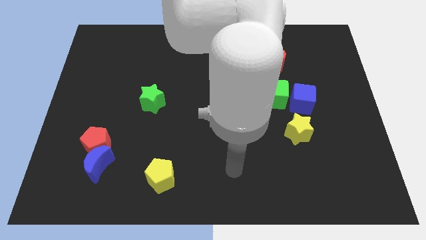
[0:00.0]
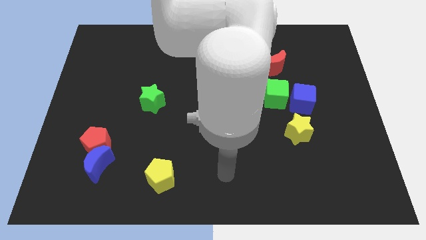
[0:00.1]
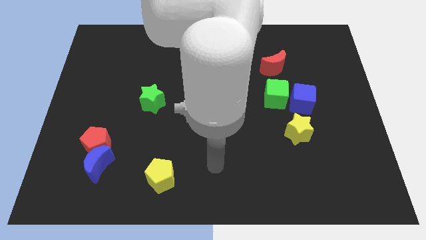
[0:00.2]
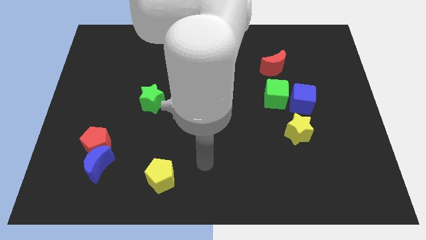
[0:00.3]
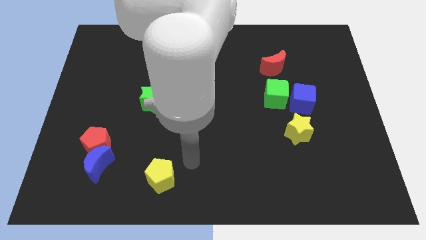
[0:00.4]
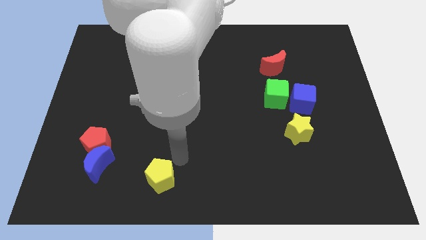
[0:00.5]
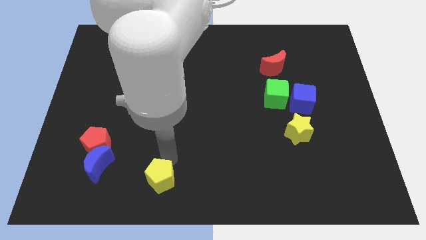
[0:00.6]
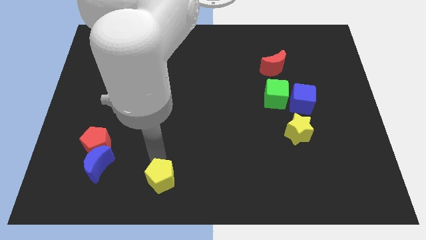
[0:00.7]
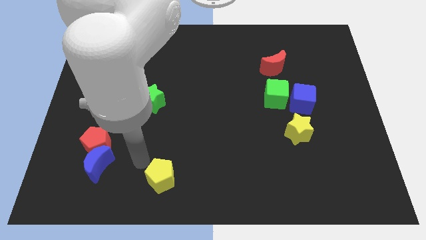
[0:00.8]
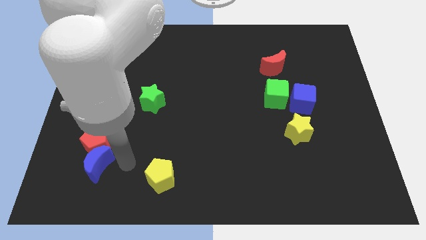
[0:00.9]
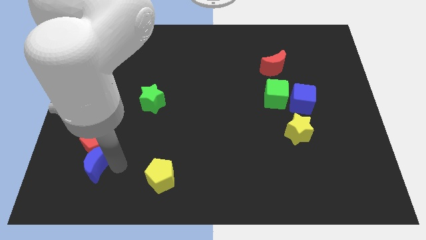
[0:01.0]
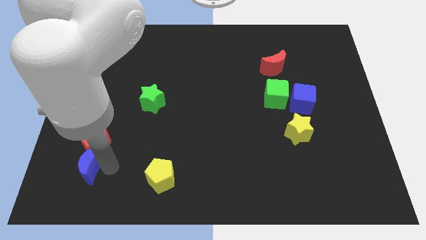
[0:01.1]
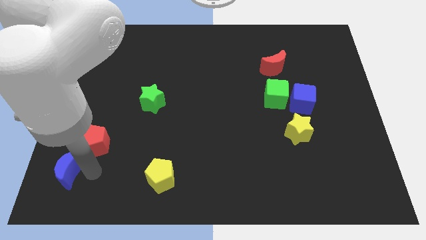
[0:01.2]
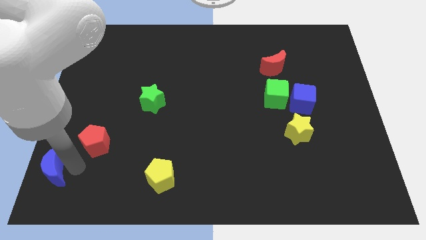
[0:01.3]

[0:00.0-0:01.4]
separate the red pentagon from the blue moon

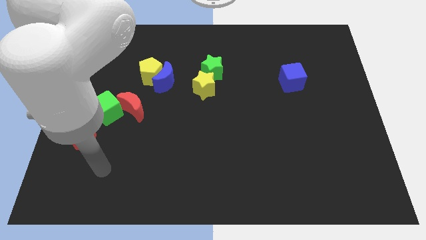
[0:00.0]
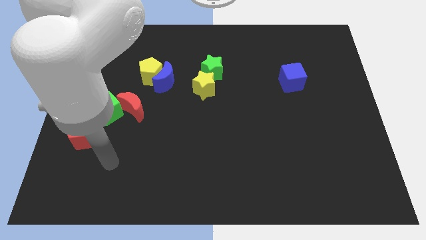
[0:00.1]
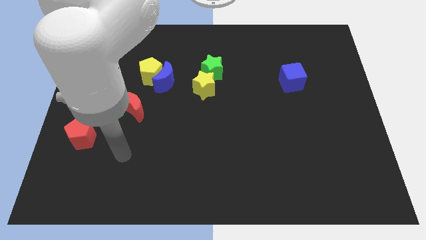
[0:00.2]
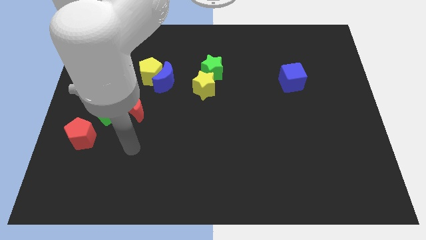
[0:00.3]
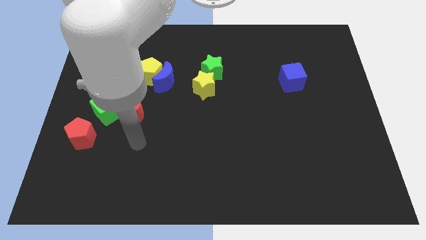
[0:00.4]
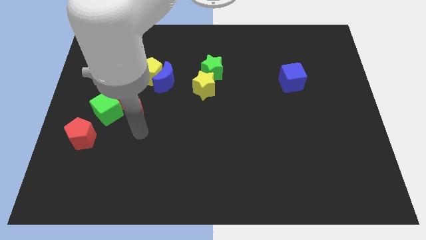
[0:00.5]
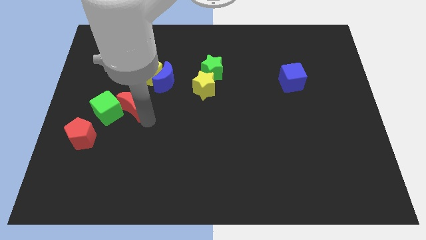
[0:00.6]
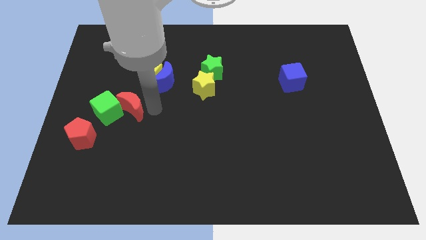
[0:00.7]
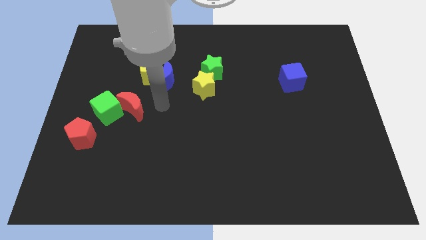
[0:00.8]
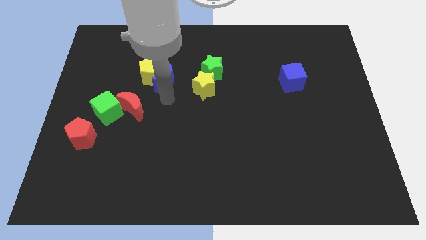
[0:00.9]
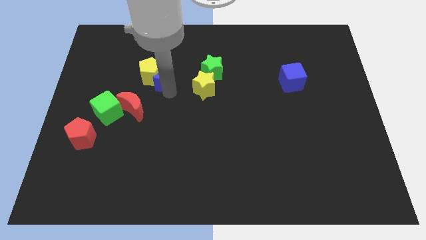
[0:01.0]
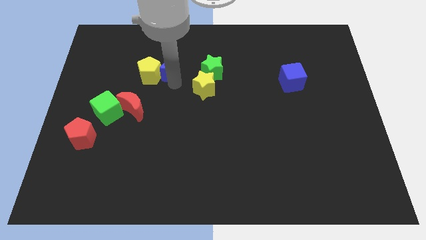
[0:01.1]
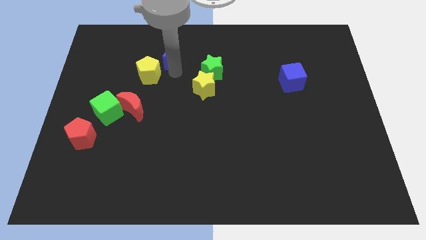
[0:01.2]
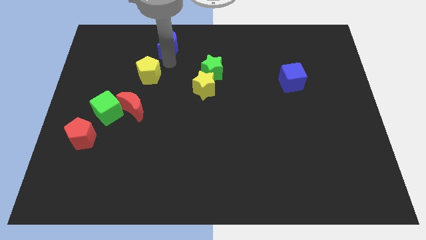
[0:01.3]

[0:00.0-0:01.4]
pull the yellow pentagon apart from the blue moon

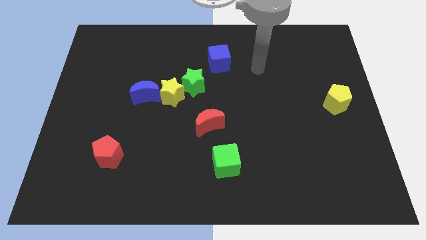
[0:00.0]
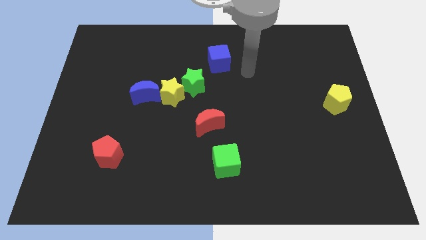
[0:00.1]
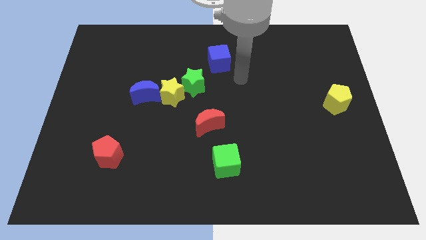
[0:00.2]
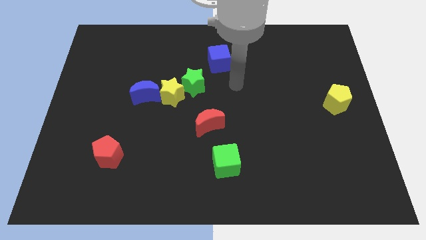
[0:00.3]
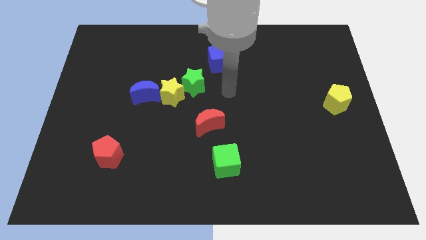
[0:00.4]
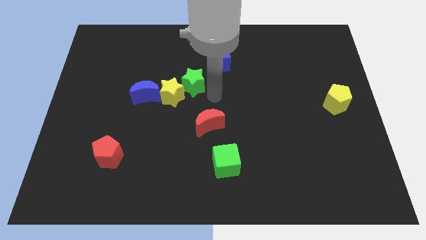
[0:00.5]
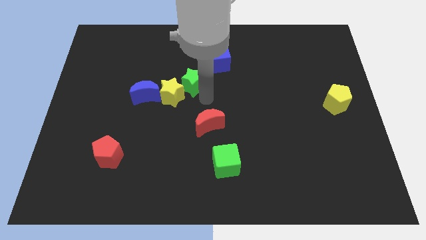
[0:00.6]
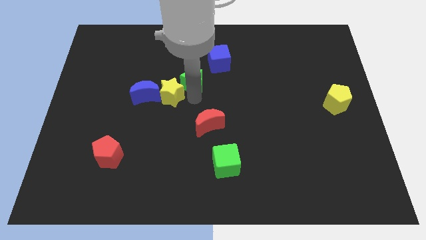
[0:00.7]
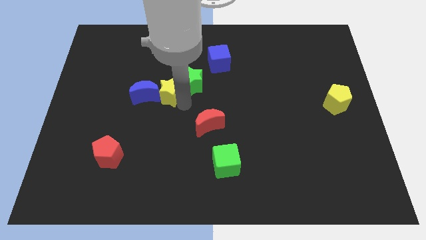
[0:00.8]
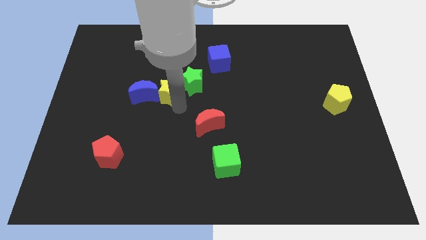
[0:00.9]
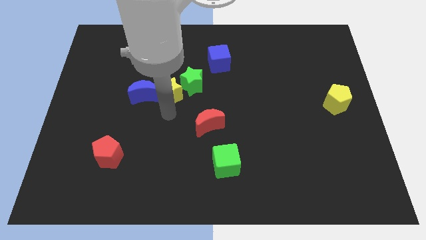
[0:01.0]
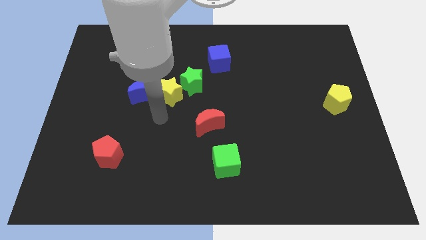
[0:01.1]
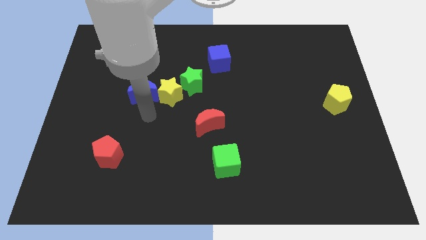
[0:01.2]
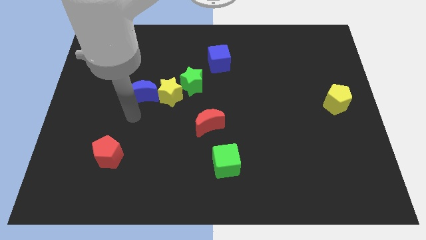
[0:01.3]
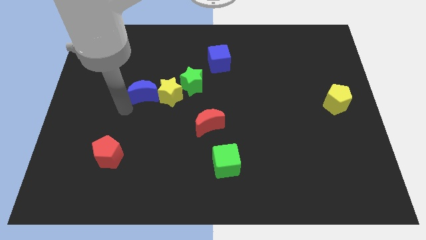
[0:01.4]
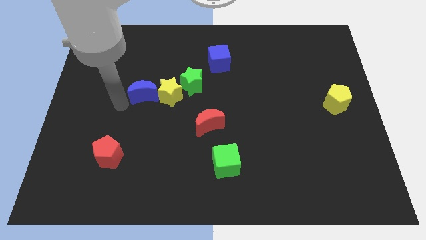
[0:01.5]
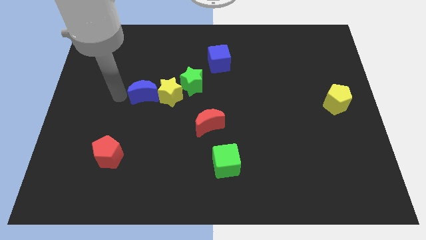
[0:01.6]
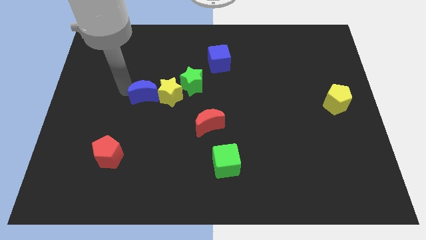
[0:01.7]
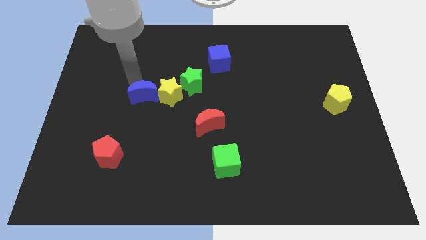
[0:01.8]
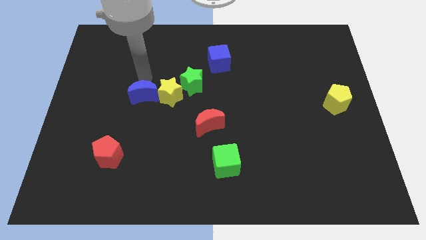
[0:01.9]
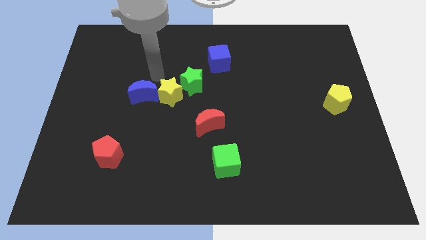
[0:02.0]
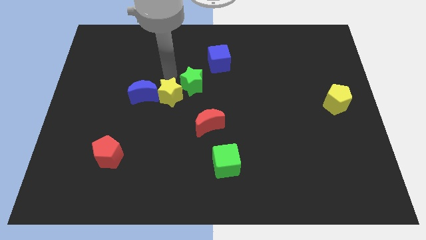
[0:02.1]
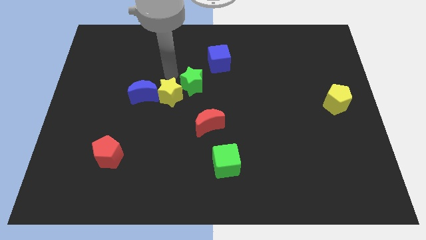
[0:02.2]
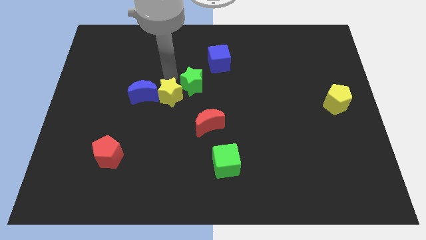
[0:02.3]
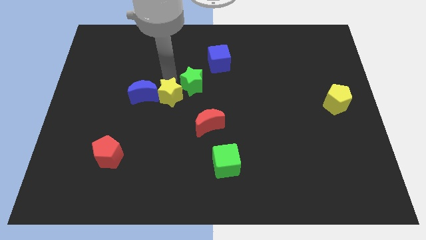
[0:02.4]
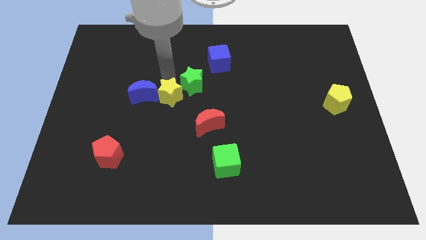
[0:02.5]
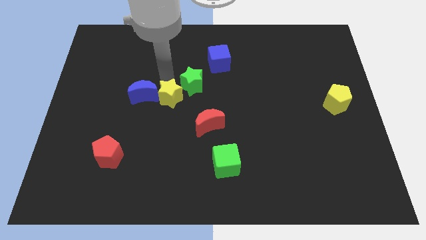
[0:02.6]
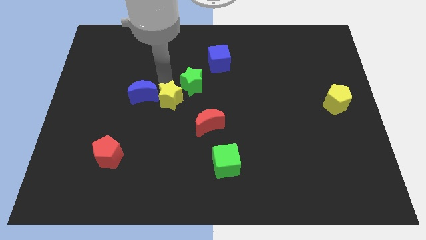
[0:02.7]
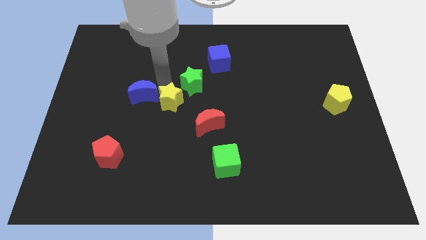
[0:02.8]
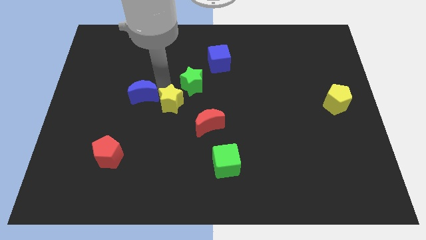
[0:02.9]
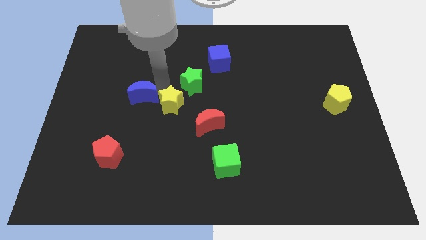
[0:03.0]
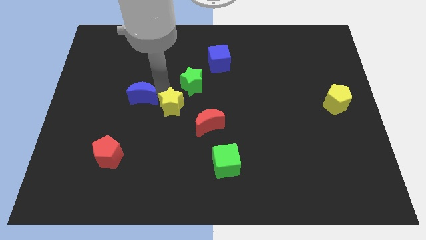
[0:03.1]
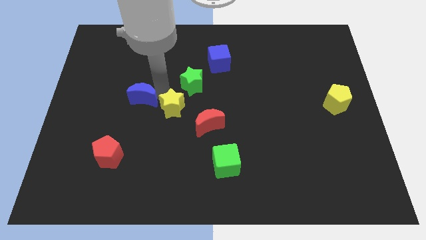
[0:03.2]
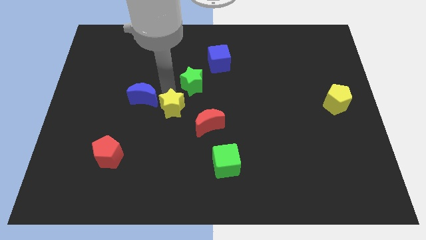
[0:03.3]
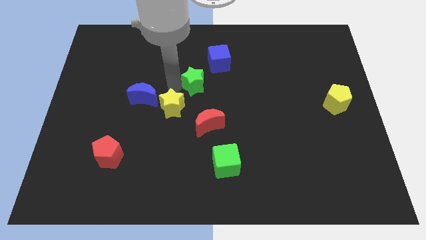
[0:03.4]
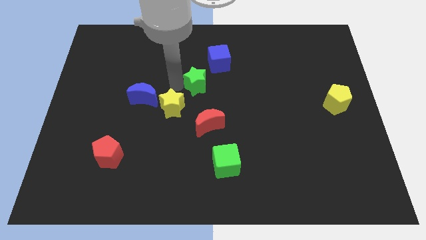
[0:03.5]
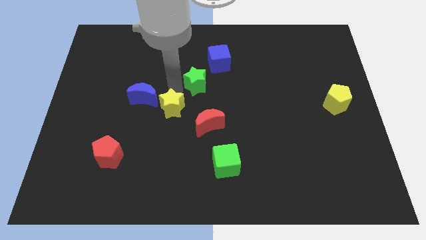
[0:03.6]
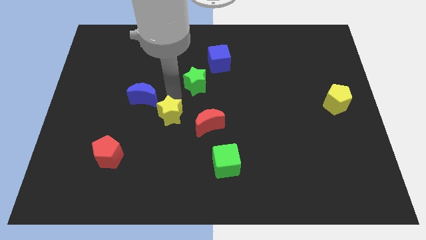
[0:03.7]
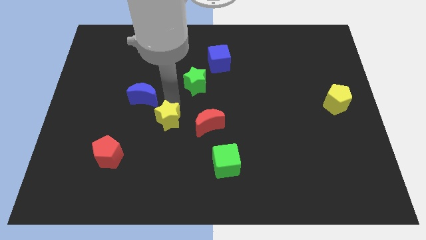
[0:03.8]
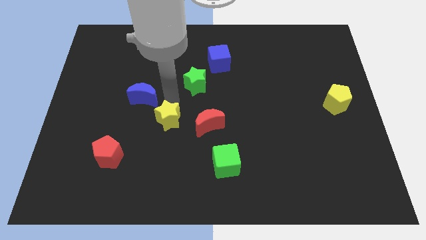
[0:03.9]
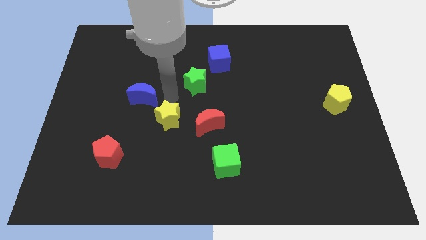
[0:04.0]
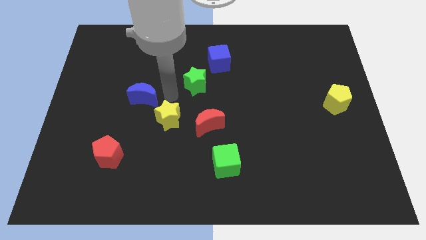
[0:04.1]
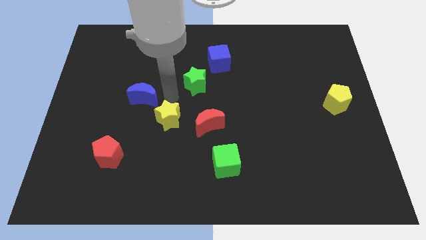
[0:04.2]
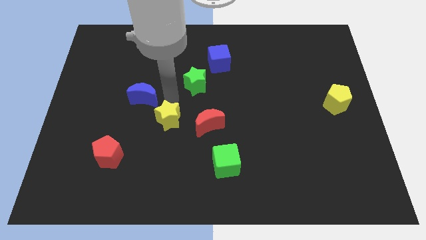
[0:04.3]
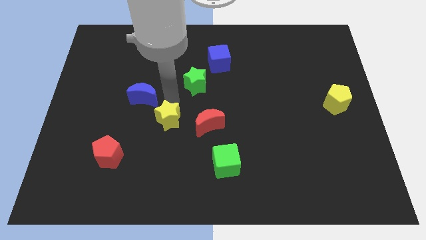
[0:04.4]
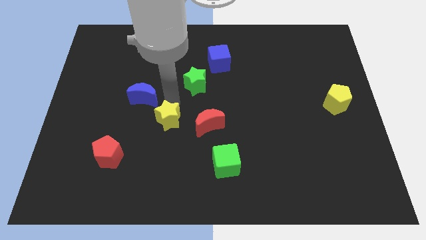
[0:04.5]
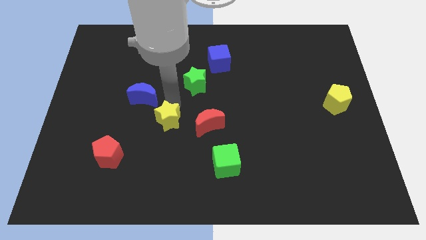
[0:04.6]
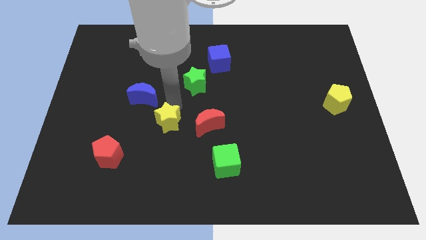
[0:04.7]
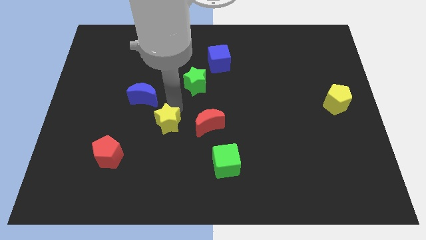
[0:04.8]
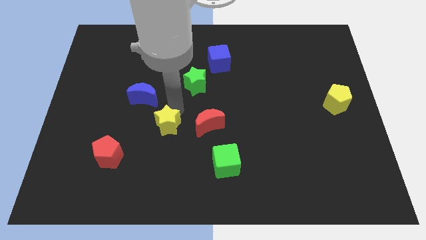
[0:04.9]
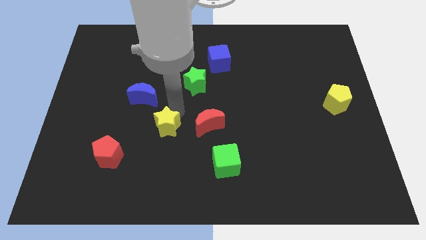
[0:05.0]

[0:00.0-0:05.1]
pull the yellow star apart from the green star and blue moon

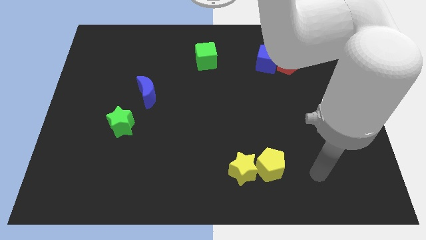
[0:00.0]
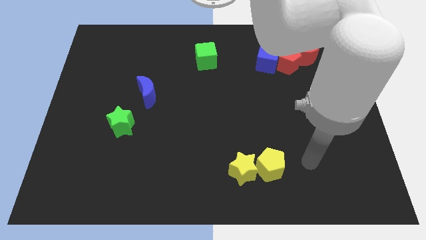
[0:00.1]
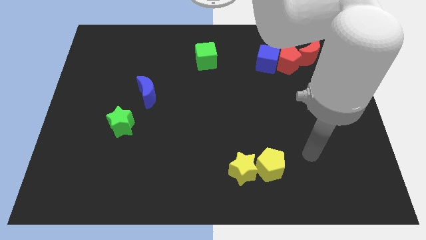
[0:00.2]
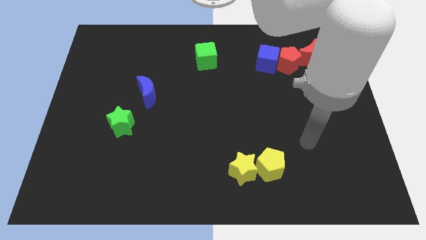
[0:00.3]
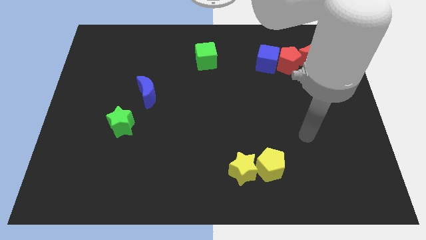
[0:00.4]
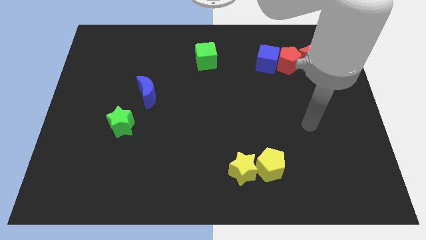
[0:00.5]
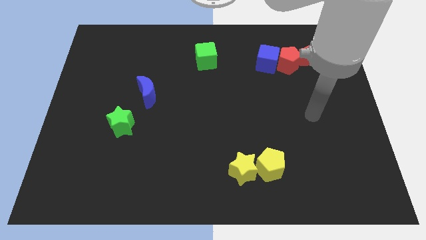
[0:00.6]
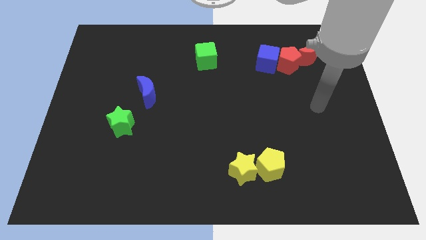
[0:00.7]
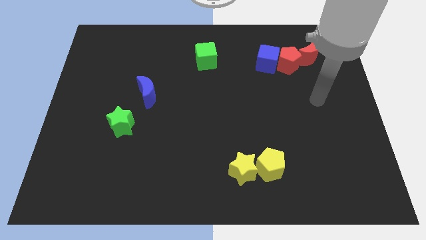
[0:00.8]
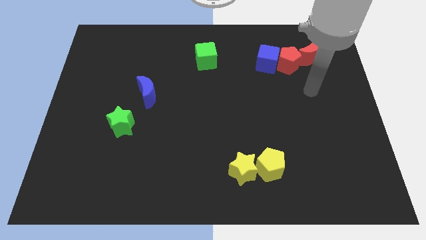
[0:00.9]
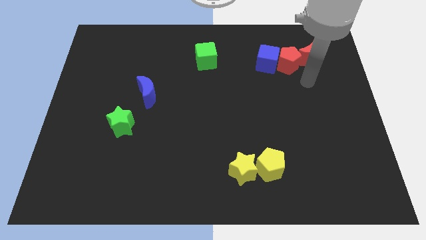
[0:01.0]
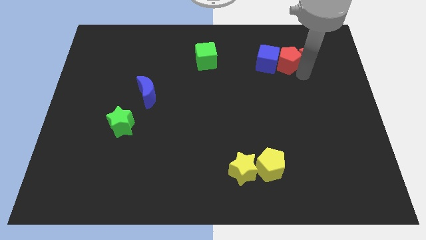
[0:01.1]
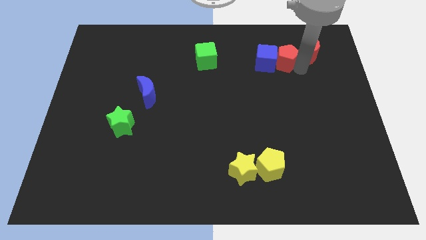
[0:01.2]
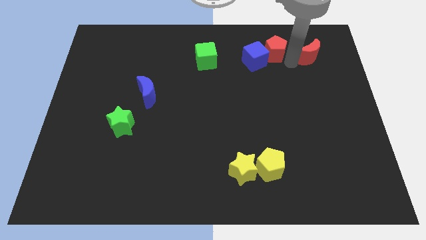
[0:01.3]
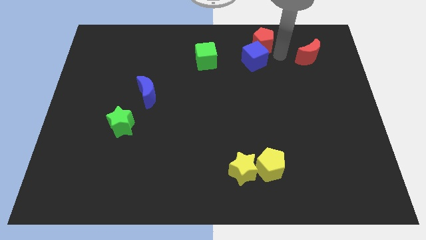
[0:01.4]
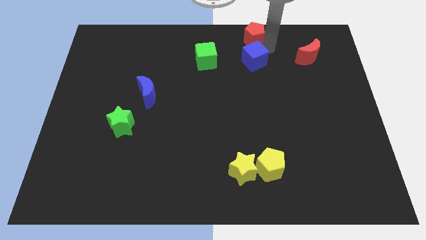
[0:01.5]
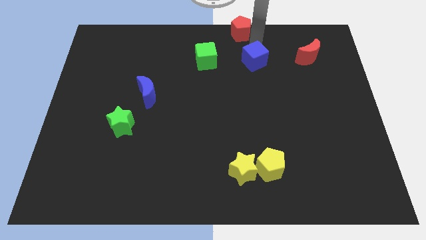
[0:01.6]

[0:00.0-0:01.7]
separate the blue cube from the red pentagon
